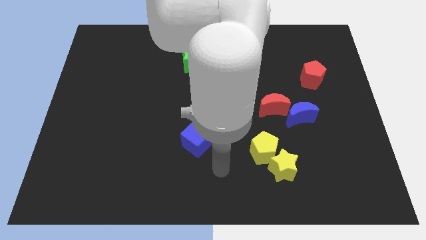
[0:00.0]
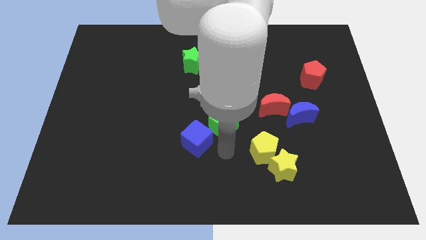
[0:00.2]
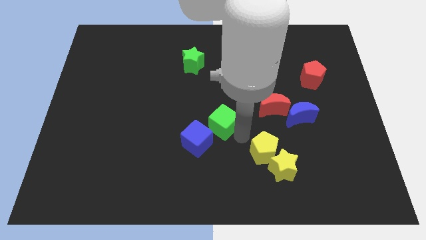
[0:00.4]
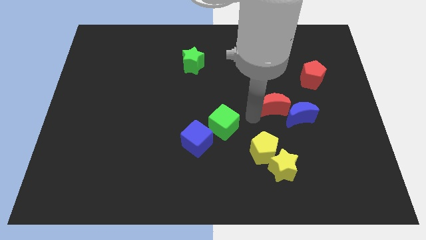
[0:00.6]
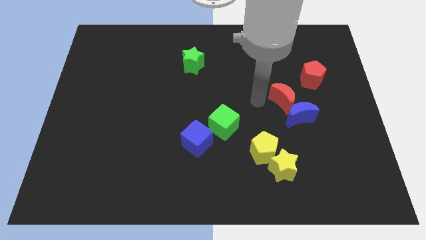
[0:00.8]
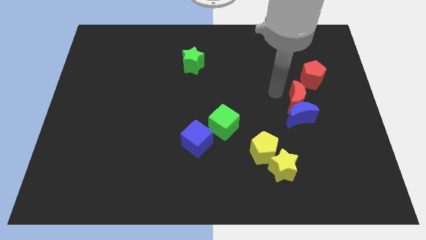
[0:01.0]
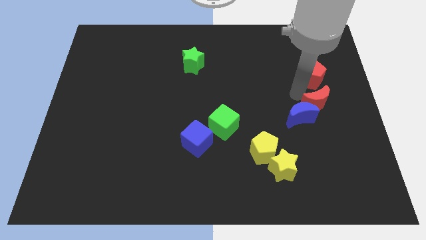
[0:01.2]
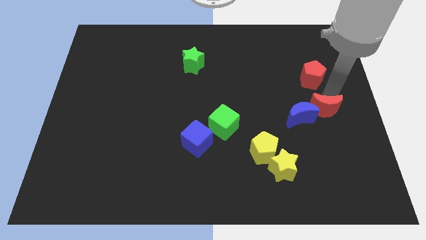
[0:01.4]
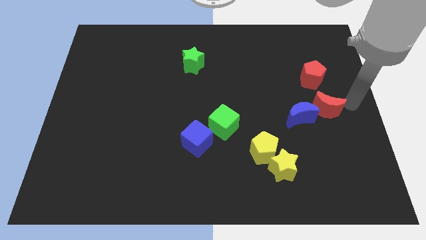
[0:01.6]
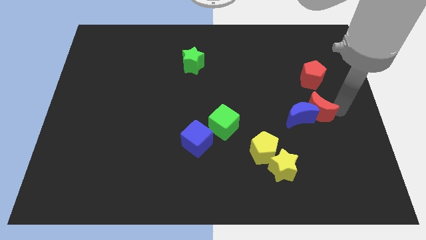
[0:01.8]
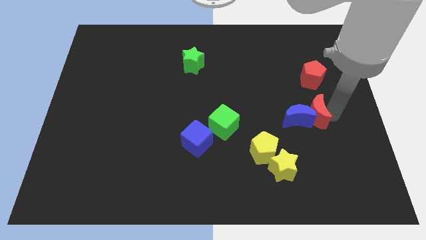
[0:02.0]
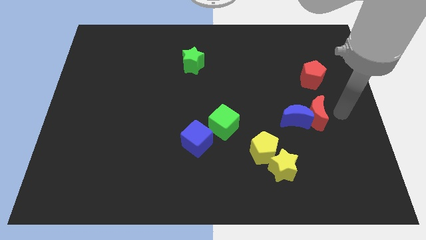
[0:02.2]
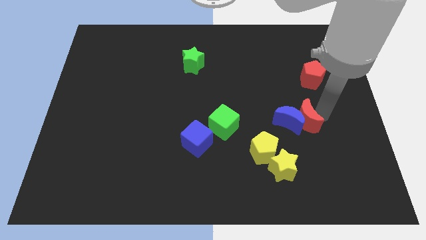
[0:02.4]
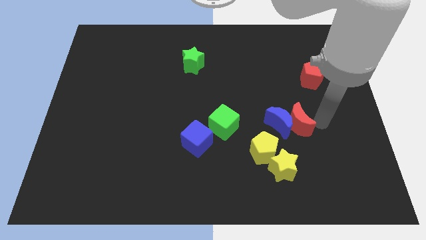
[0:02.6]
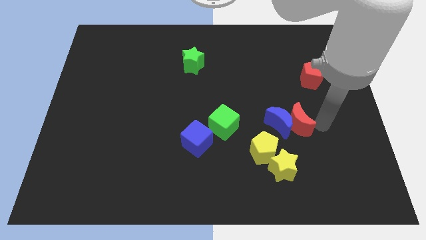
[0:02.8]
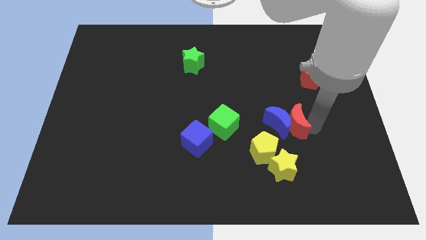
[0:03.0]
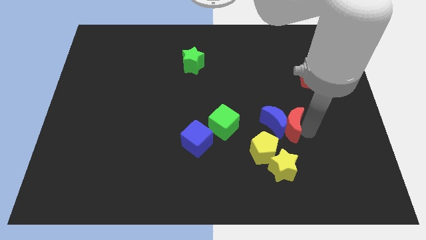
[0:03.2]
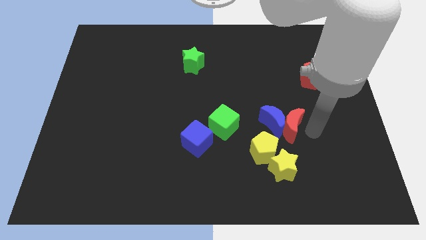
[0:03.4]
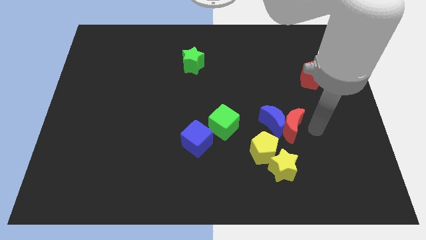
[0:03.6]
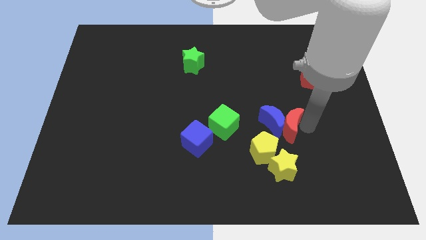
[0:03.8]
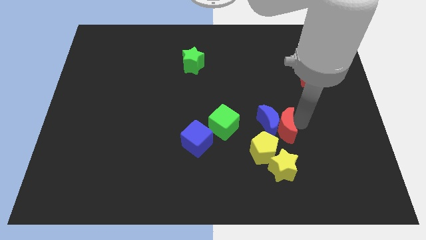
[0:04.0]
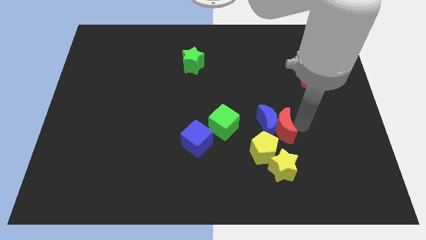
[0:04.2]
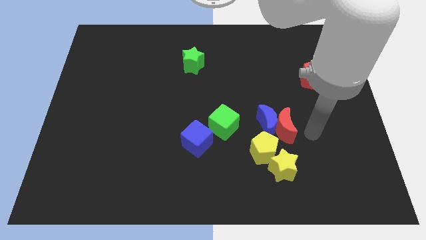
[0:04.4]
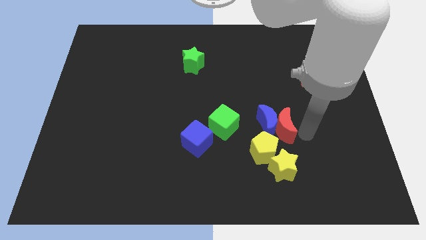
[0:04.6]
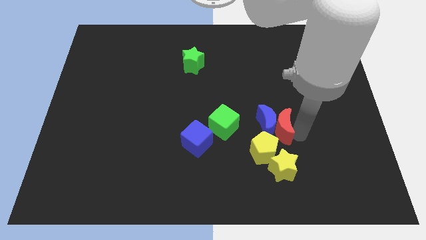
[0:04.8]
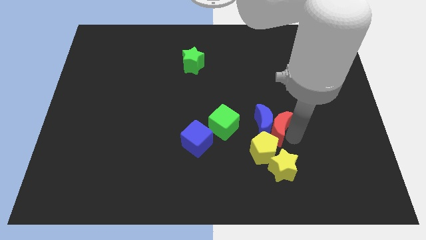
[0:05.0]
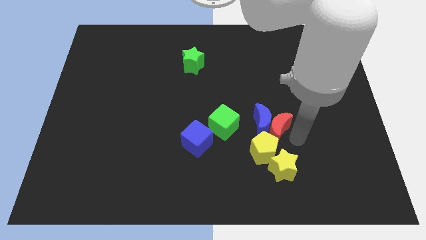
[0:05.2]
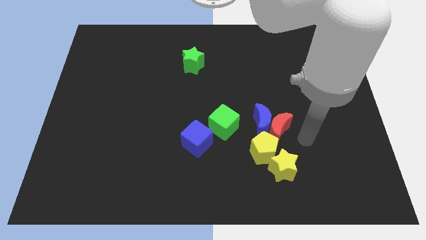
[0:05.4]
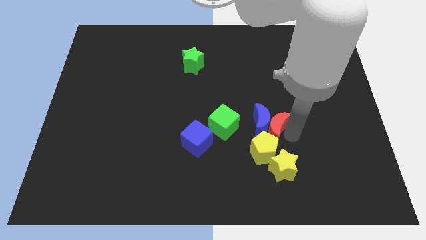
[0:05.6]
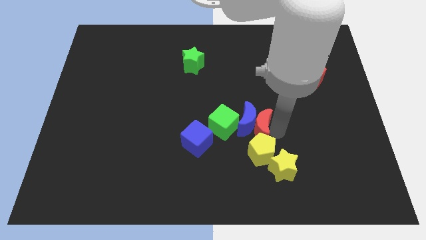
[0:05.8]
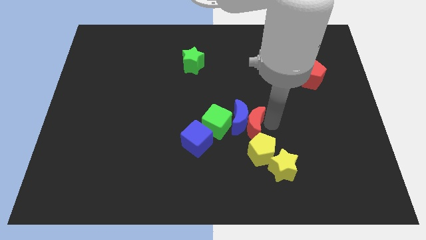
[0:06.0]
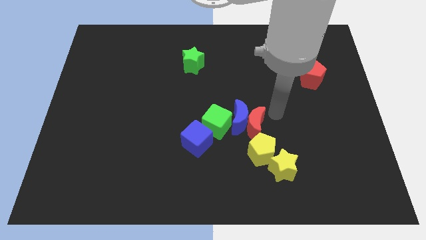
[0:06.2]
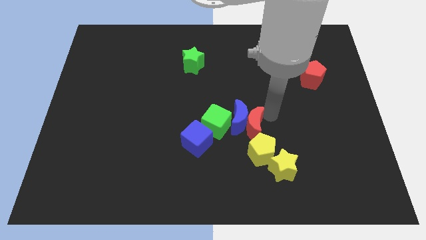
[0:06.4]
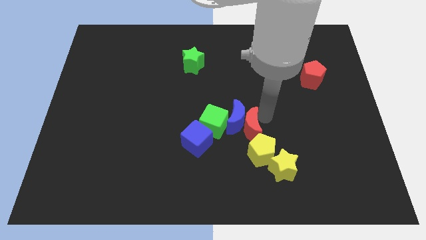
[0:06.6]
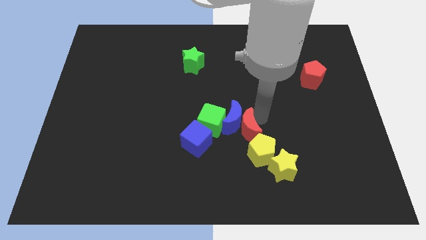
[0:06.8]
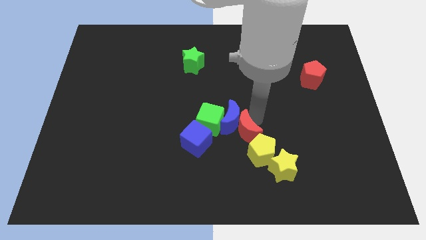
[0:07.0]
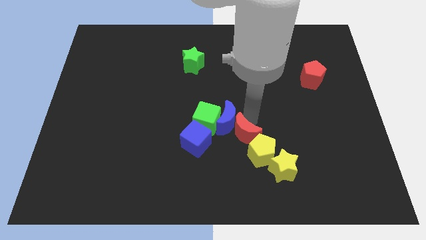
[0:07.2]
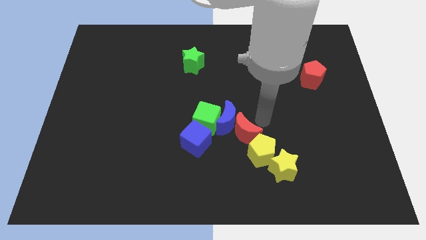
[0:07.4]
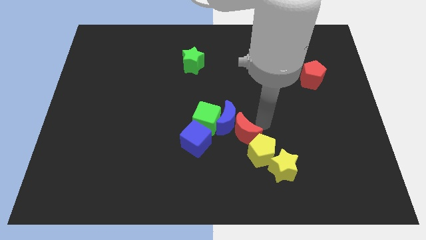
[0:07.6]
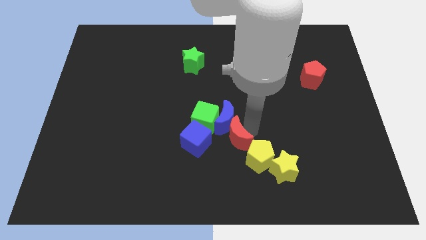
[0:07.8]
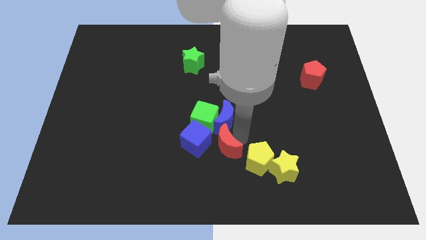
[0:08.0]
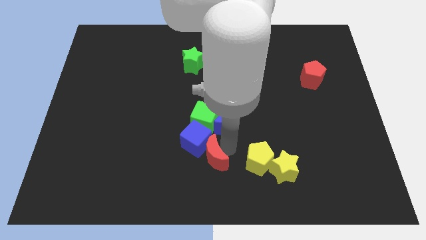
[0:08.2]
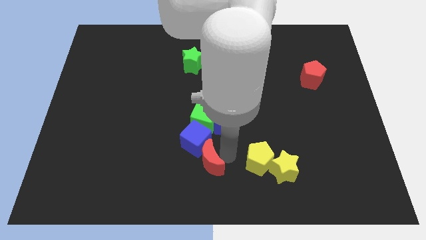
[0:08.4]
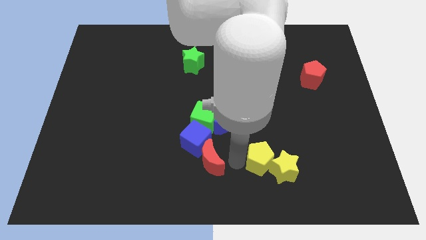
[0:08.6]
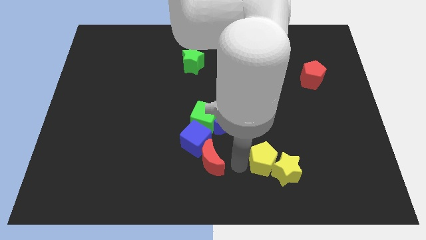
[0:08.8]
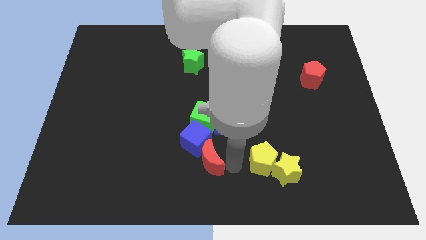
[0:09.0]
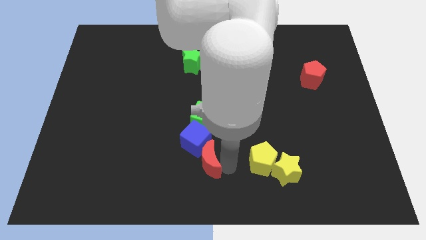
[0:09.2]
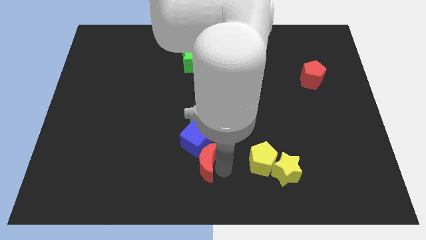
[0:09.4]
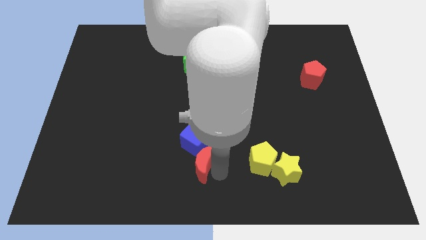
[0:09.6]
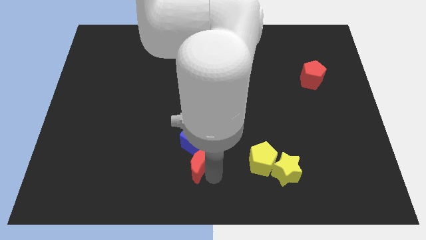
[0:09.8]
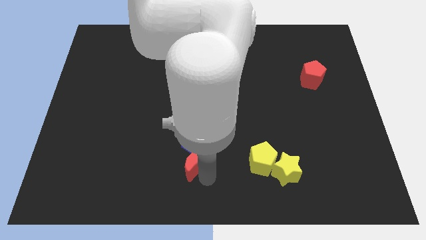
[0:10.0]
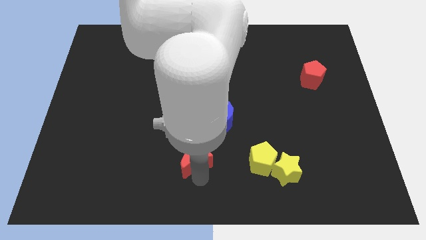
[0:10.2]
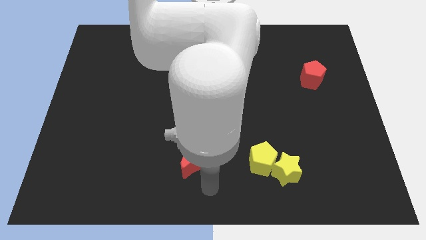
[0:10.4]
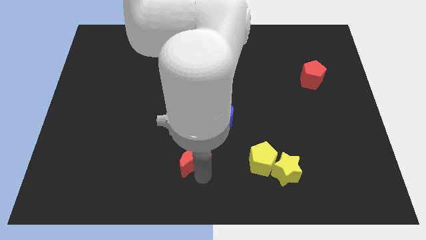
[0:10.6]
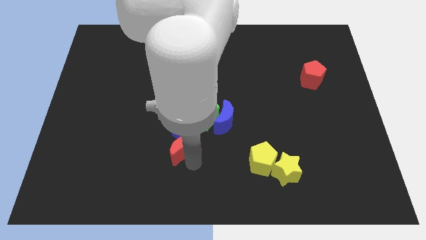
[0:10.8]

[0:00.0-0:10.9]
put the red moon to the bottom left of the green cube

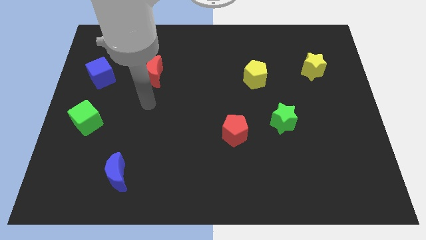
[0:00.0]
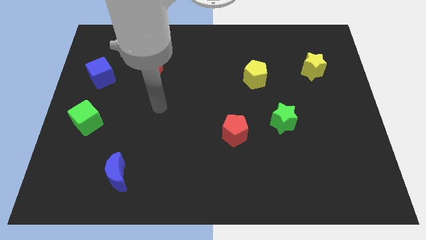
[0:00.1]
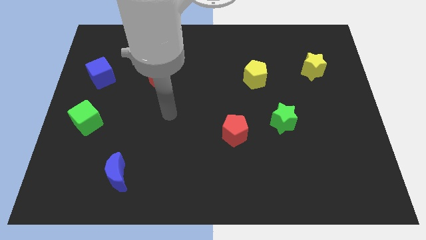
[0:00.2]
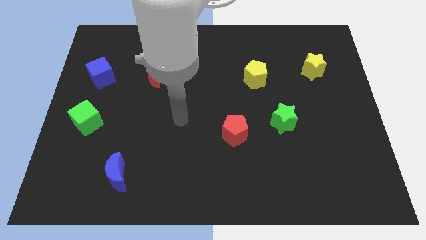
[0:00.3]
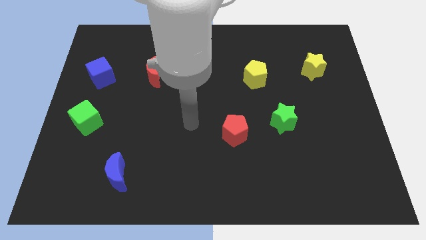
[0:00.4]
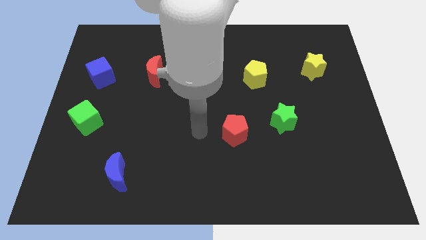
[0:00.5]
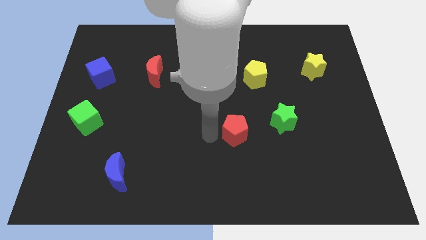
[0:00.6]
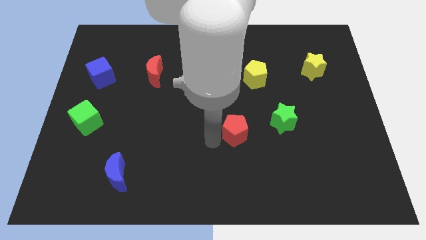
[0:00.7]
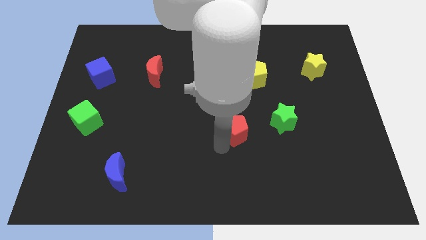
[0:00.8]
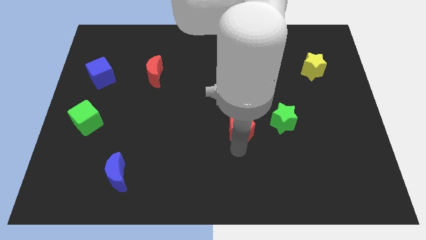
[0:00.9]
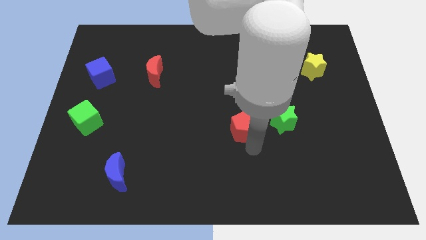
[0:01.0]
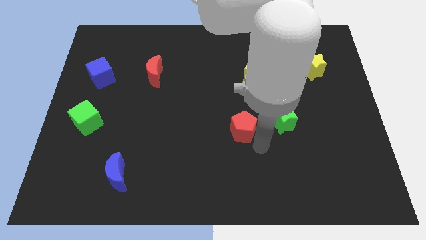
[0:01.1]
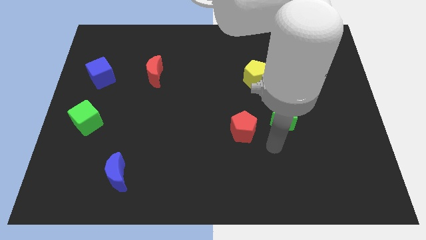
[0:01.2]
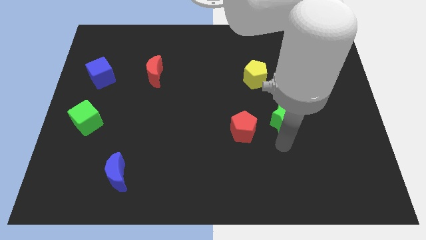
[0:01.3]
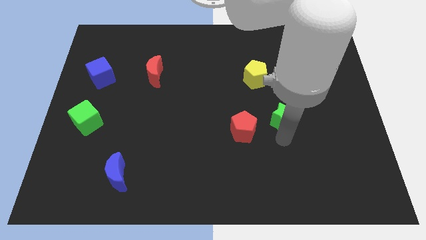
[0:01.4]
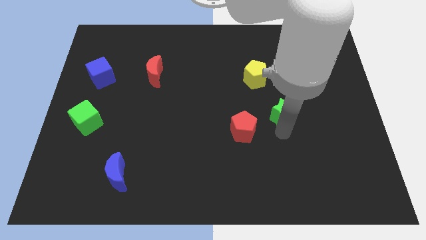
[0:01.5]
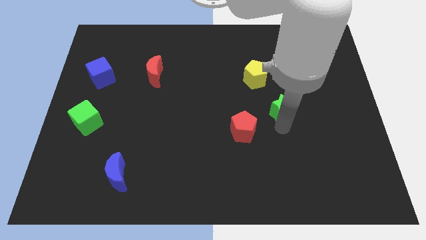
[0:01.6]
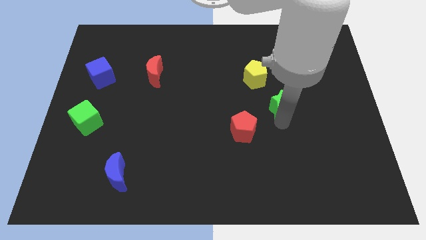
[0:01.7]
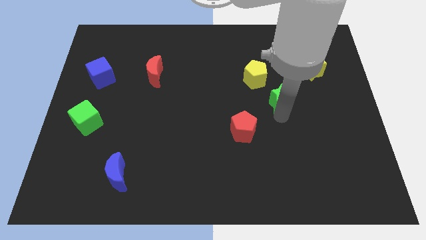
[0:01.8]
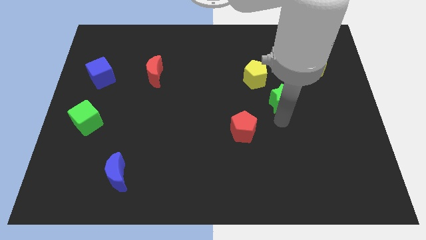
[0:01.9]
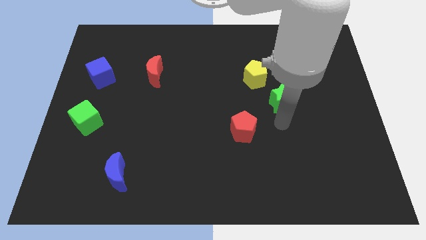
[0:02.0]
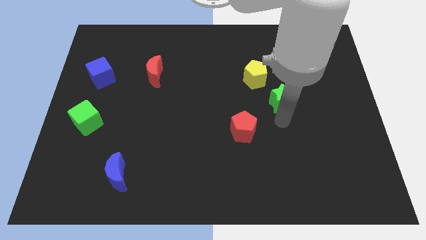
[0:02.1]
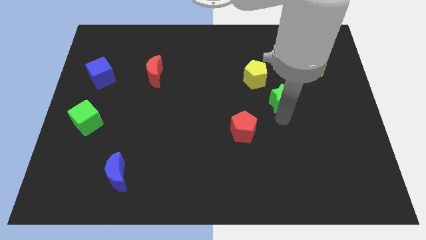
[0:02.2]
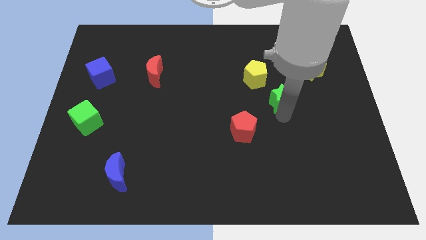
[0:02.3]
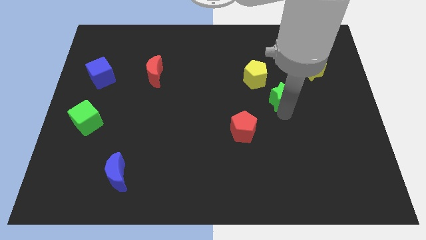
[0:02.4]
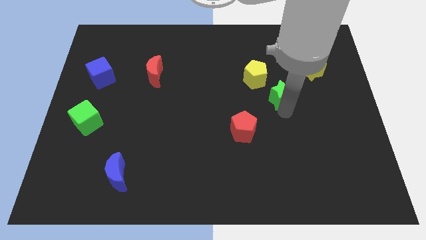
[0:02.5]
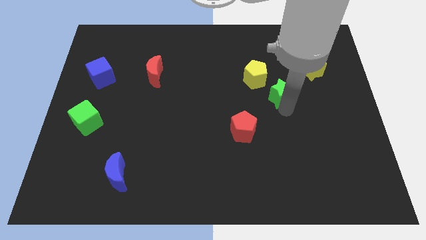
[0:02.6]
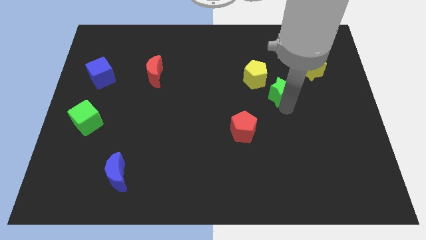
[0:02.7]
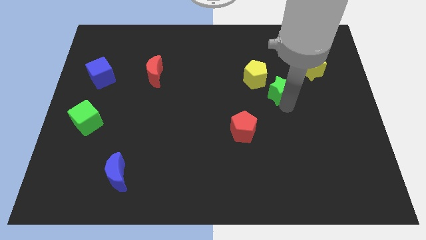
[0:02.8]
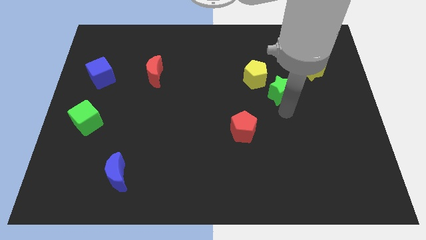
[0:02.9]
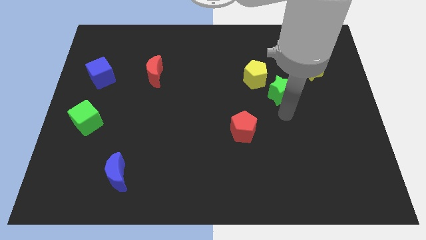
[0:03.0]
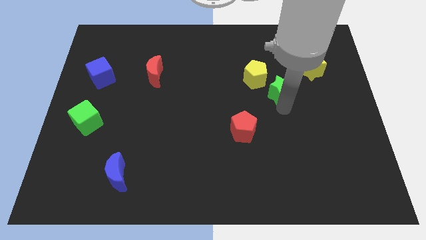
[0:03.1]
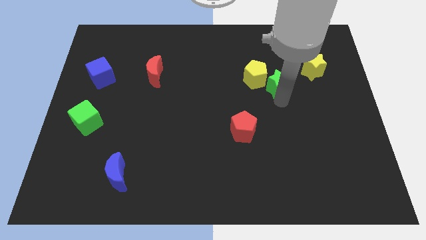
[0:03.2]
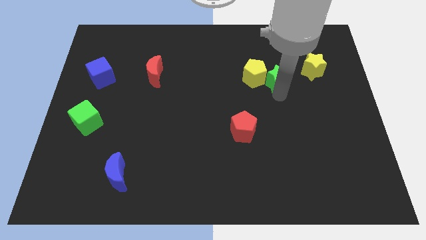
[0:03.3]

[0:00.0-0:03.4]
move the green star to the left side of the yellow star
